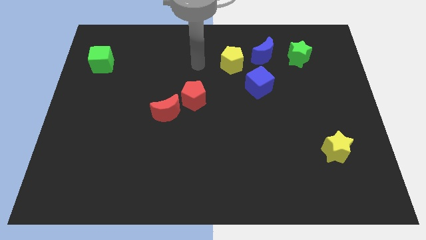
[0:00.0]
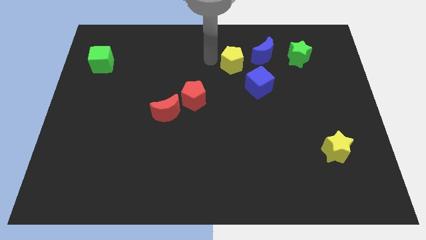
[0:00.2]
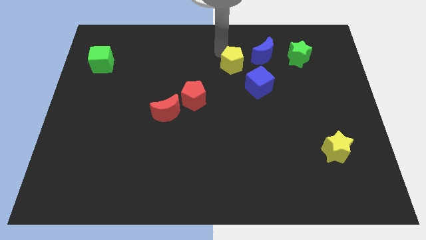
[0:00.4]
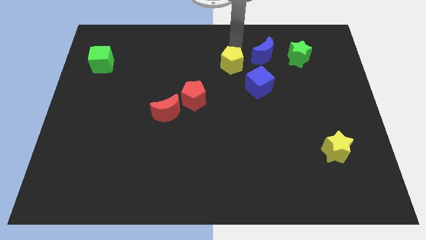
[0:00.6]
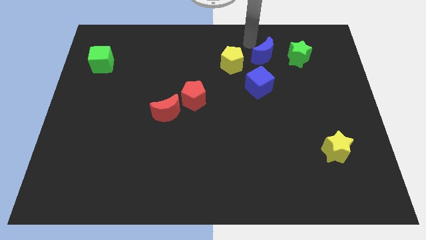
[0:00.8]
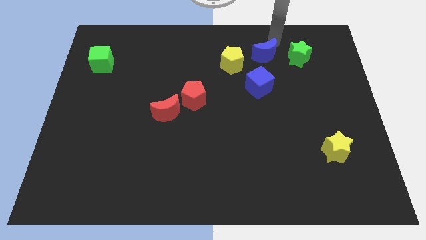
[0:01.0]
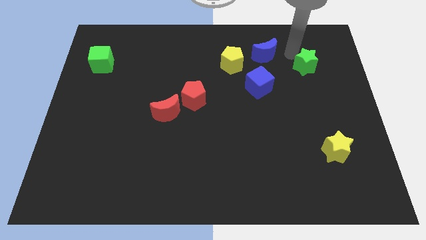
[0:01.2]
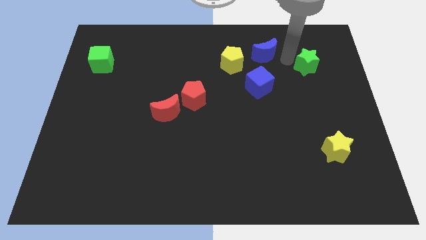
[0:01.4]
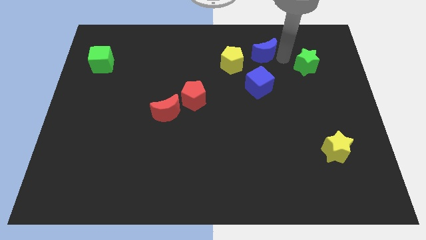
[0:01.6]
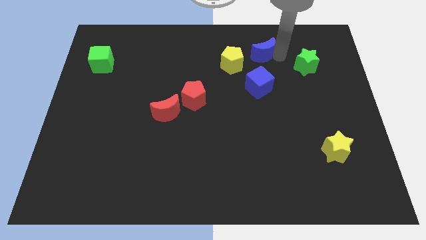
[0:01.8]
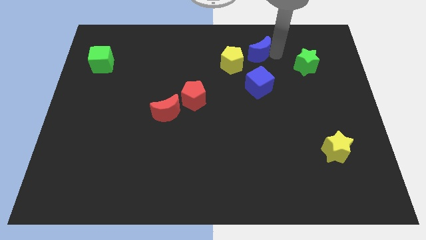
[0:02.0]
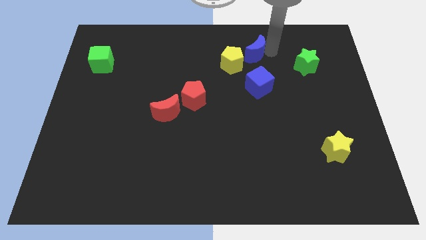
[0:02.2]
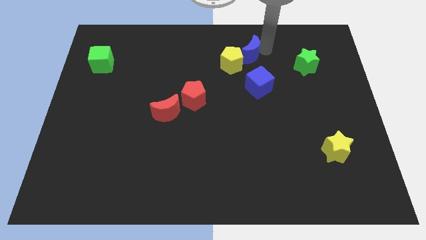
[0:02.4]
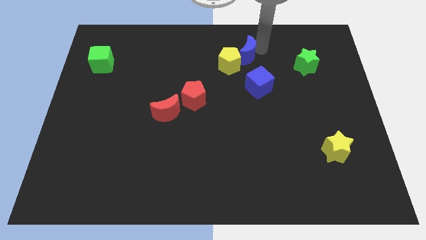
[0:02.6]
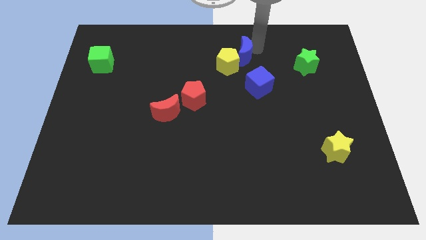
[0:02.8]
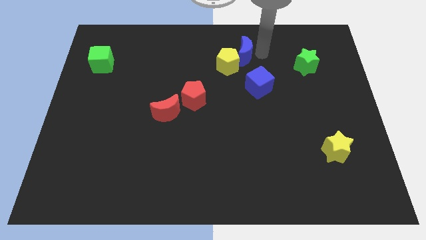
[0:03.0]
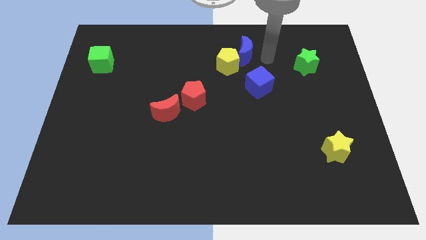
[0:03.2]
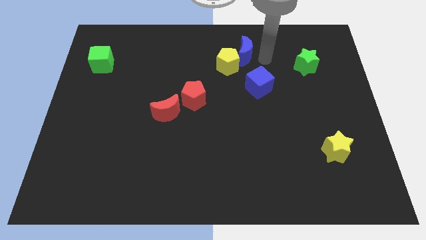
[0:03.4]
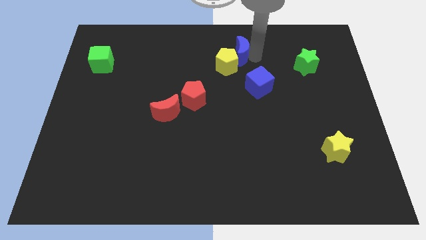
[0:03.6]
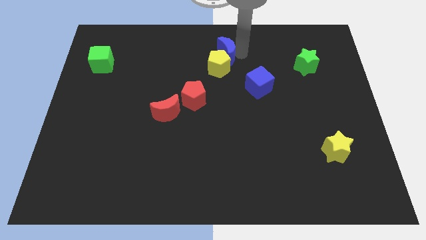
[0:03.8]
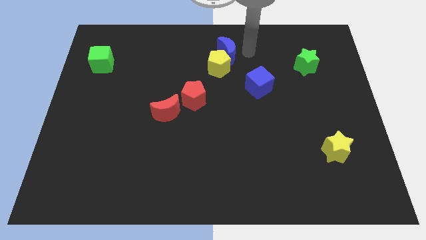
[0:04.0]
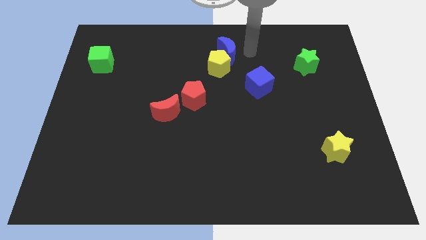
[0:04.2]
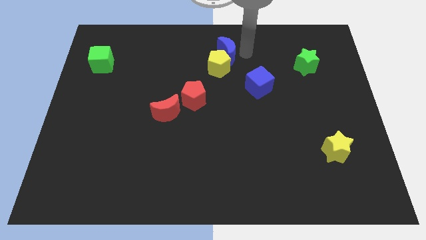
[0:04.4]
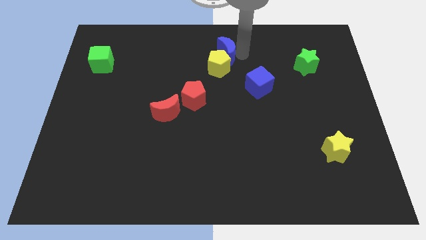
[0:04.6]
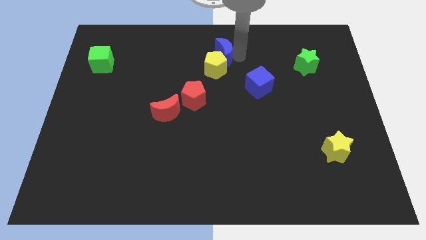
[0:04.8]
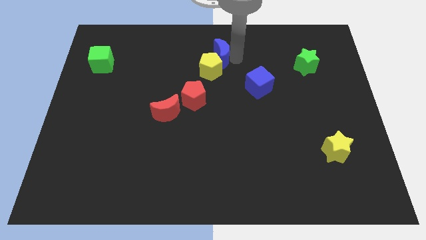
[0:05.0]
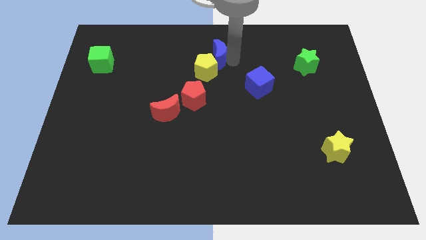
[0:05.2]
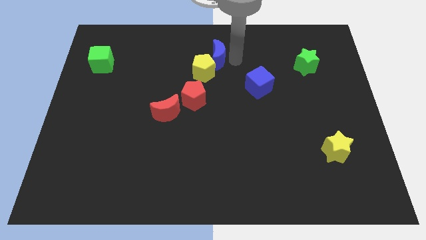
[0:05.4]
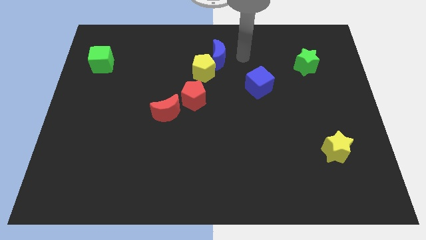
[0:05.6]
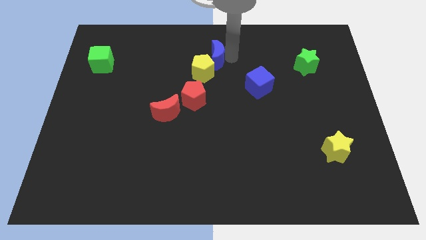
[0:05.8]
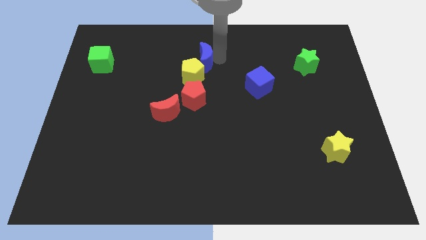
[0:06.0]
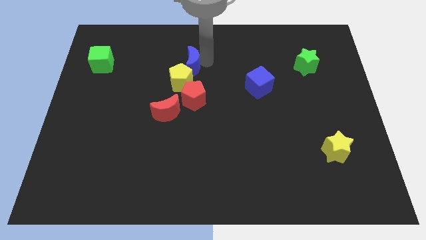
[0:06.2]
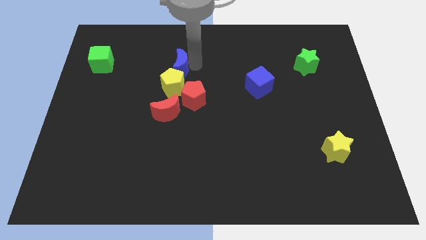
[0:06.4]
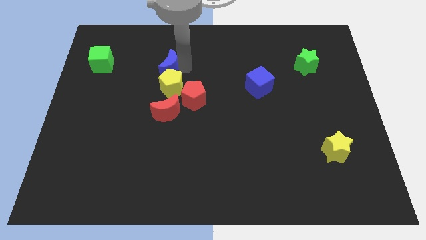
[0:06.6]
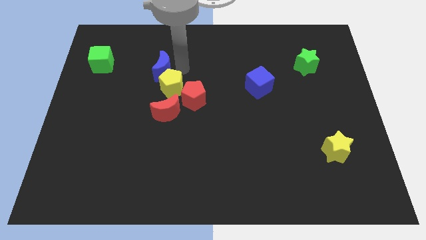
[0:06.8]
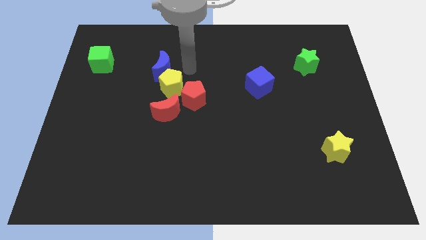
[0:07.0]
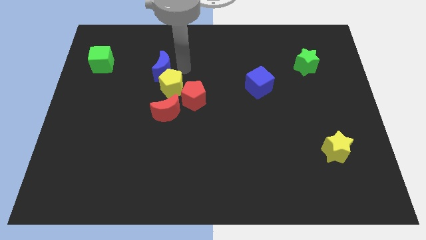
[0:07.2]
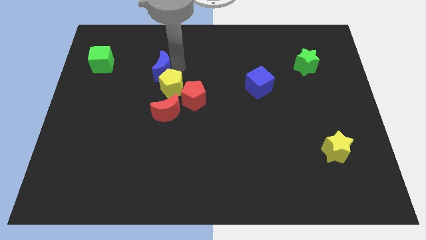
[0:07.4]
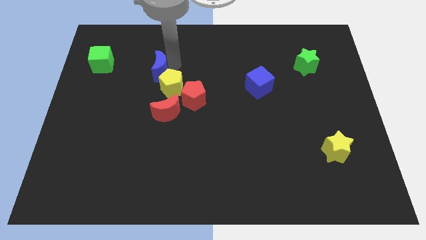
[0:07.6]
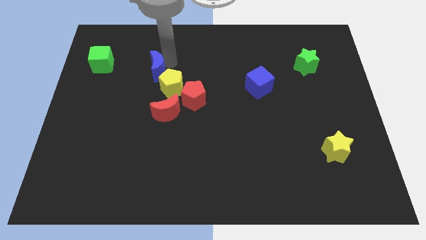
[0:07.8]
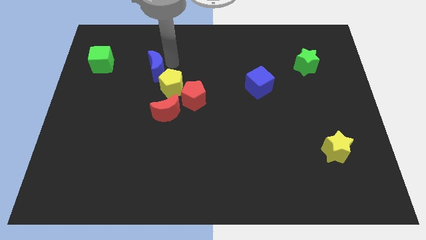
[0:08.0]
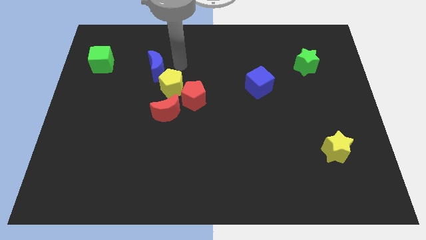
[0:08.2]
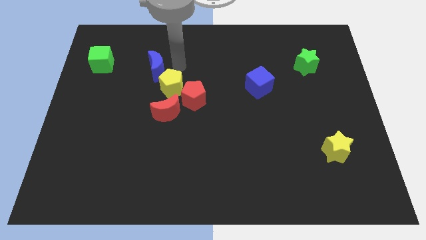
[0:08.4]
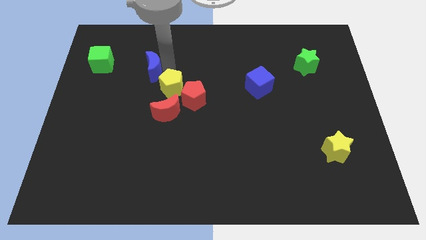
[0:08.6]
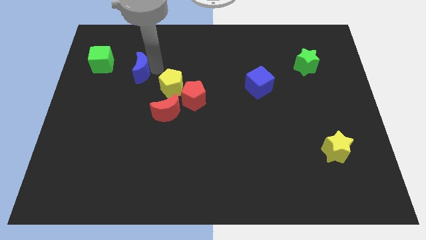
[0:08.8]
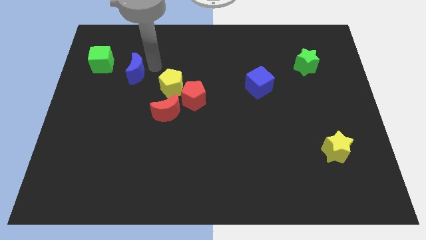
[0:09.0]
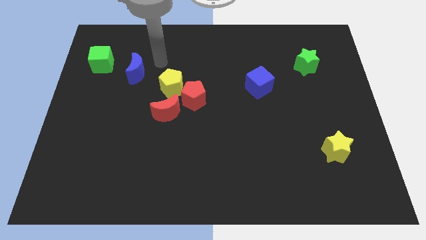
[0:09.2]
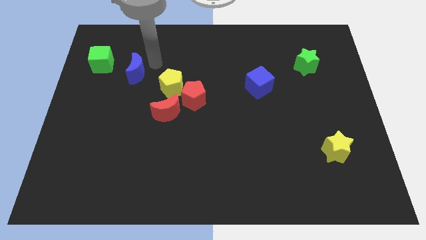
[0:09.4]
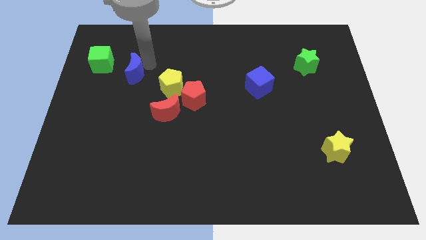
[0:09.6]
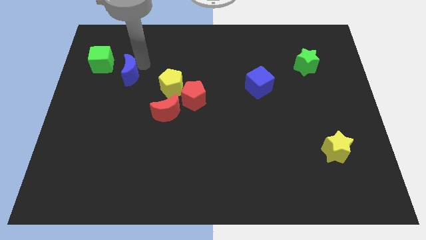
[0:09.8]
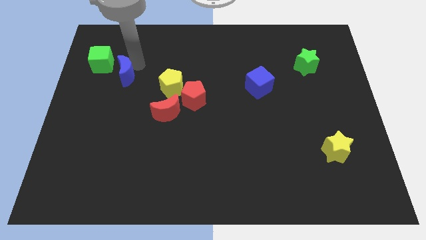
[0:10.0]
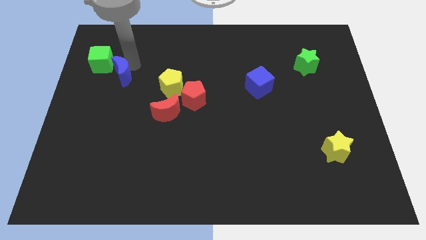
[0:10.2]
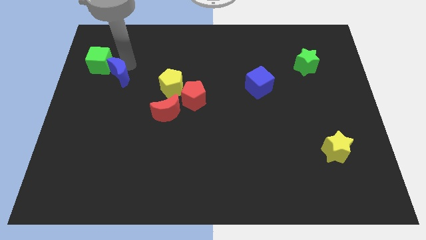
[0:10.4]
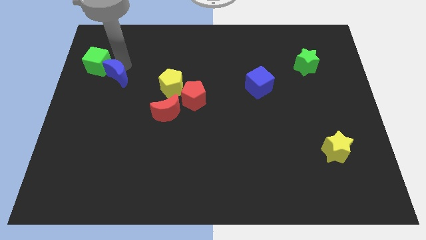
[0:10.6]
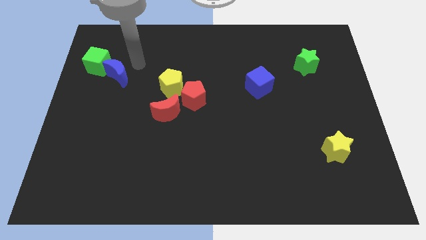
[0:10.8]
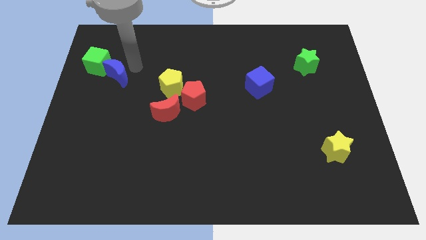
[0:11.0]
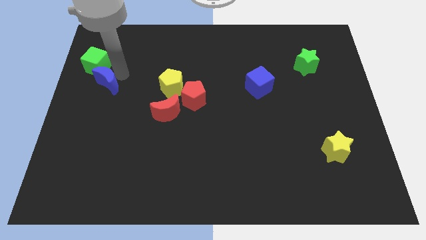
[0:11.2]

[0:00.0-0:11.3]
move the blue moon to the center left

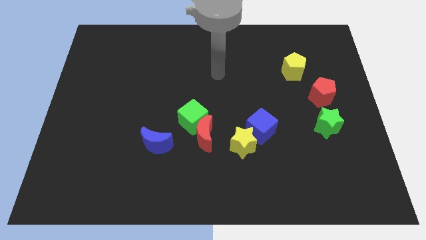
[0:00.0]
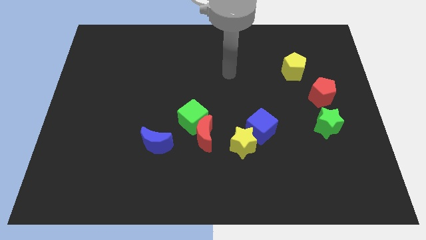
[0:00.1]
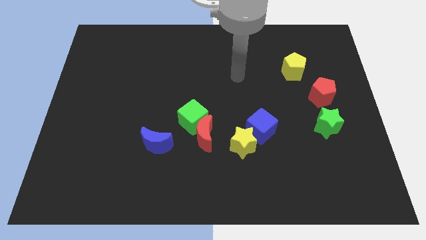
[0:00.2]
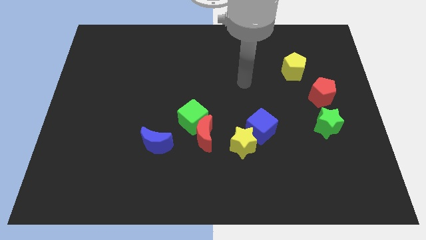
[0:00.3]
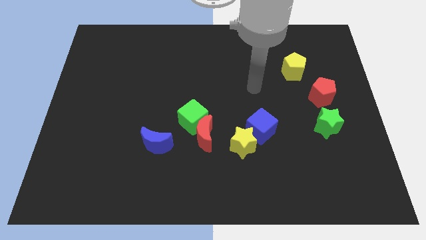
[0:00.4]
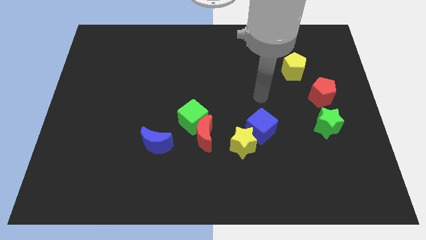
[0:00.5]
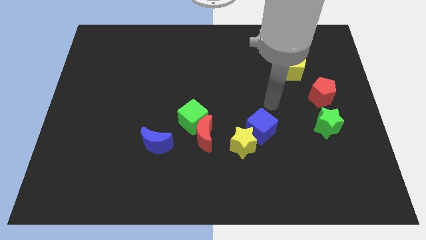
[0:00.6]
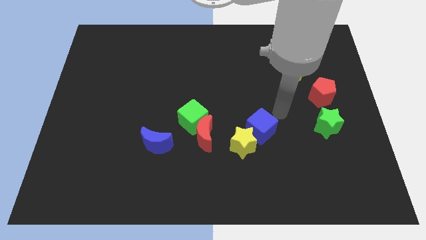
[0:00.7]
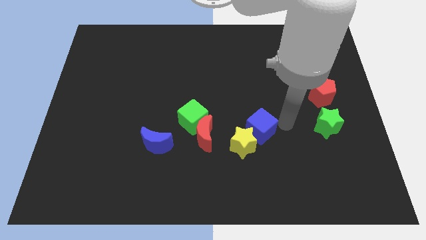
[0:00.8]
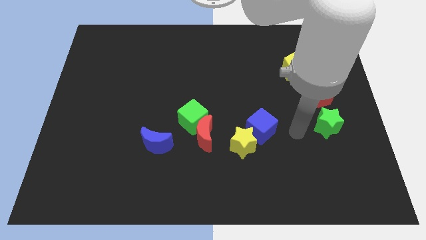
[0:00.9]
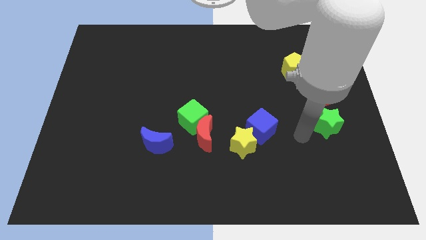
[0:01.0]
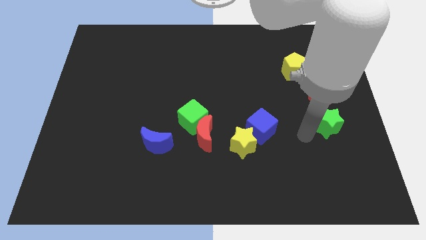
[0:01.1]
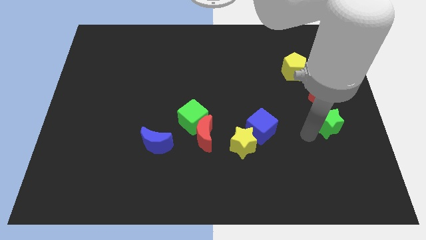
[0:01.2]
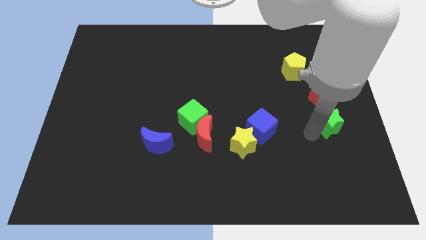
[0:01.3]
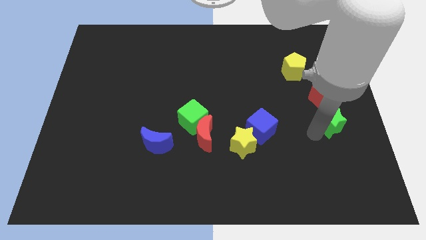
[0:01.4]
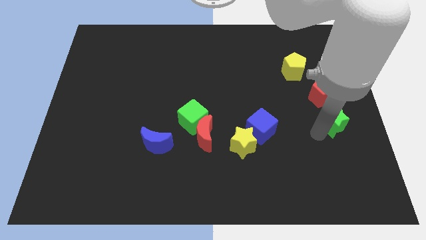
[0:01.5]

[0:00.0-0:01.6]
slide the green star to the right side
